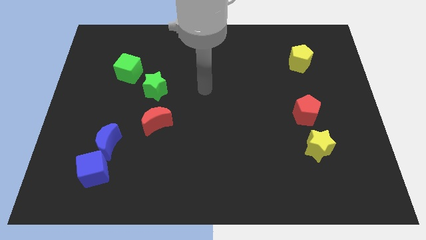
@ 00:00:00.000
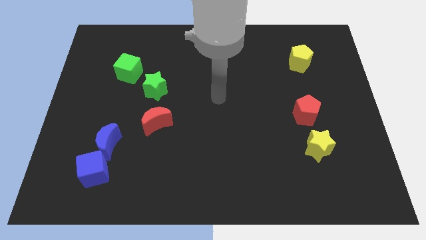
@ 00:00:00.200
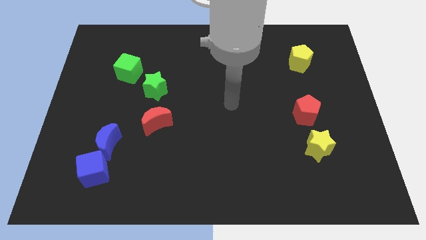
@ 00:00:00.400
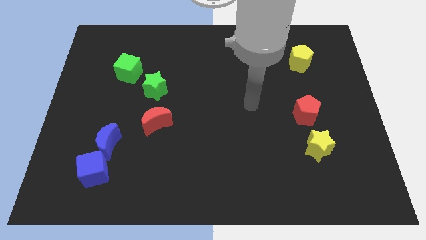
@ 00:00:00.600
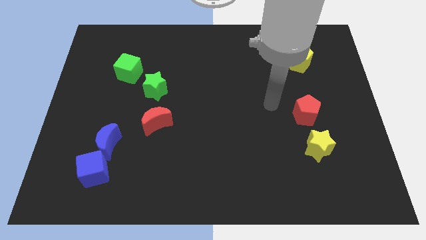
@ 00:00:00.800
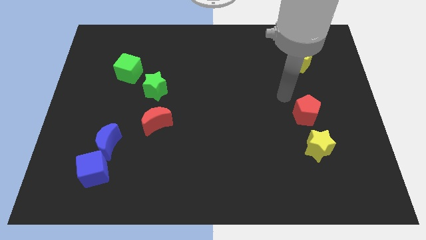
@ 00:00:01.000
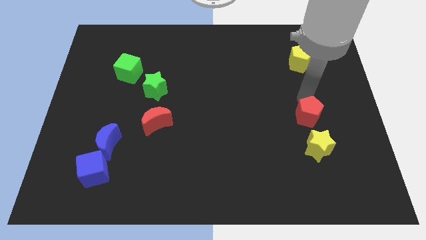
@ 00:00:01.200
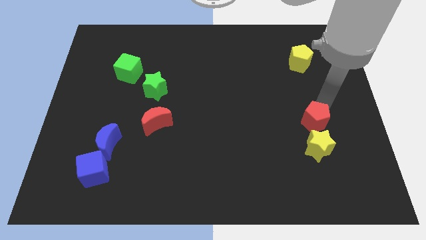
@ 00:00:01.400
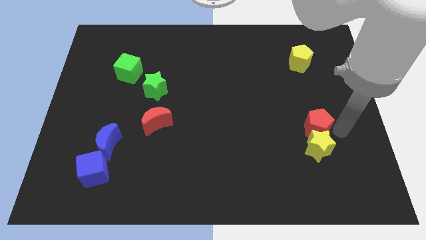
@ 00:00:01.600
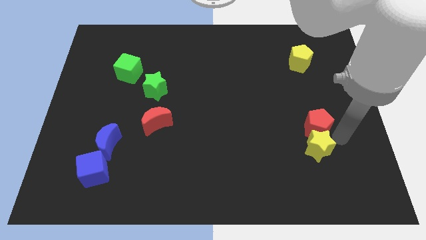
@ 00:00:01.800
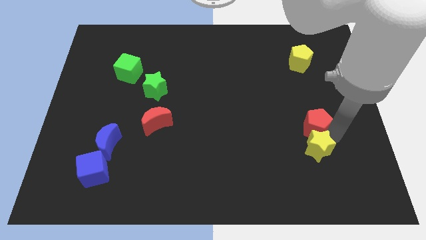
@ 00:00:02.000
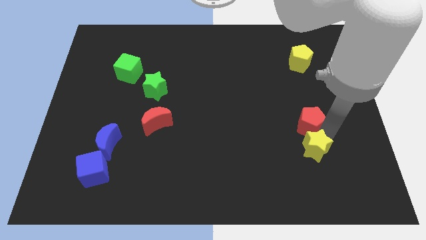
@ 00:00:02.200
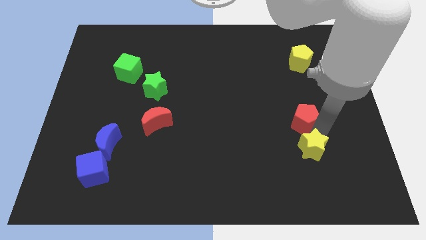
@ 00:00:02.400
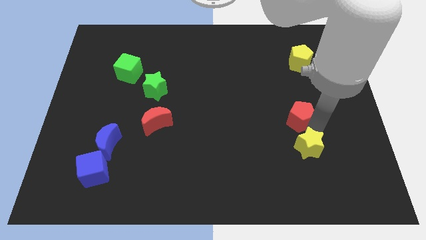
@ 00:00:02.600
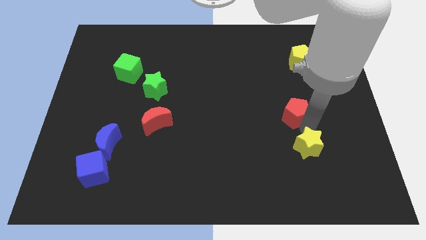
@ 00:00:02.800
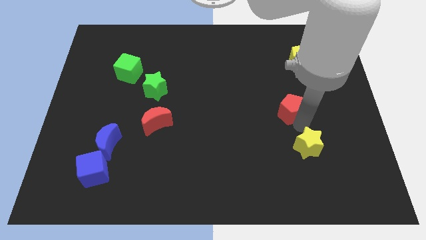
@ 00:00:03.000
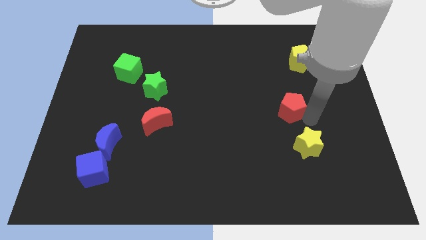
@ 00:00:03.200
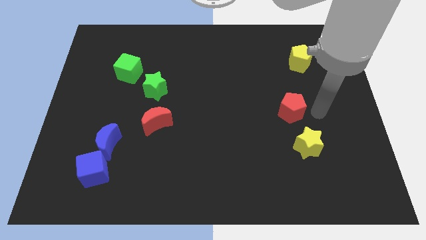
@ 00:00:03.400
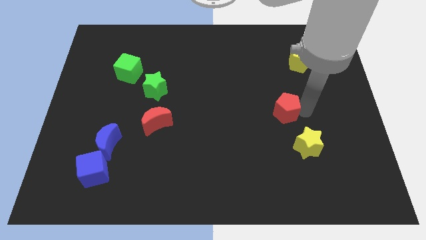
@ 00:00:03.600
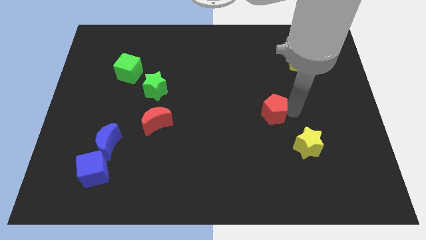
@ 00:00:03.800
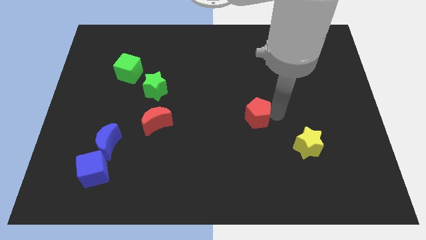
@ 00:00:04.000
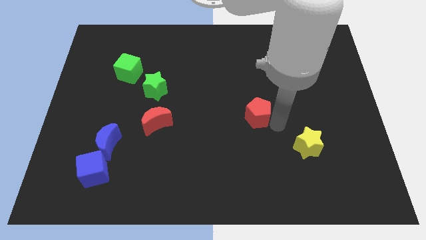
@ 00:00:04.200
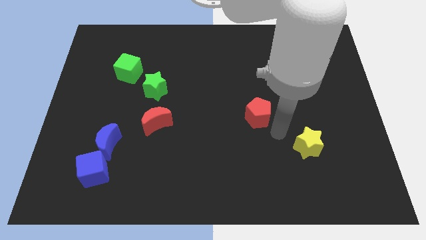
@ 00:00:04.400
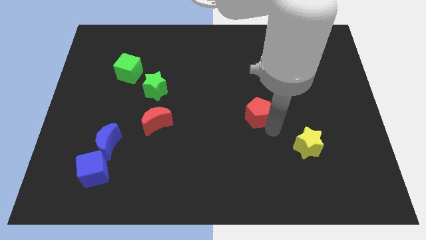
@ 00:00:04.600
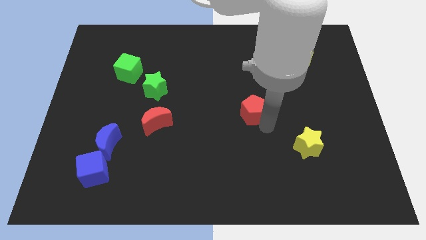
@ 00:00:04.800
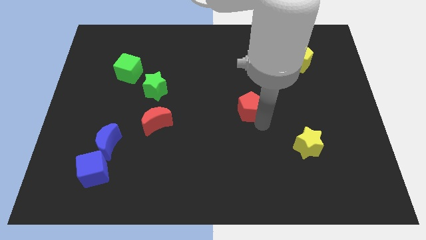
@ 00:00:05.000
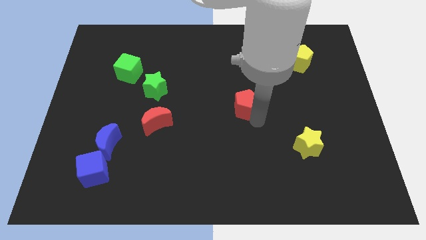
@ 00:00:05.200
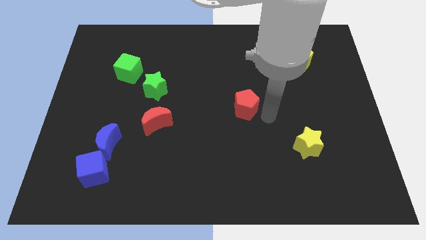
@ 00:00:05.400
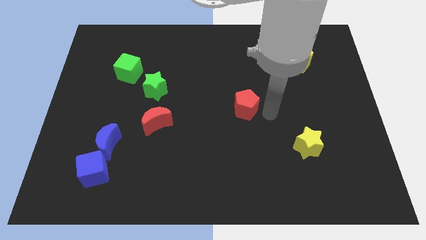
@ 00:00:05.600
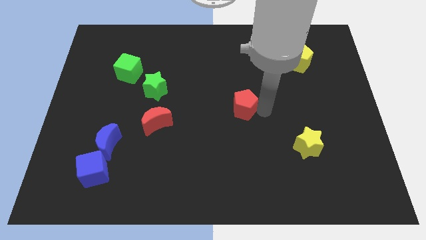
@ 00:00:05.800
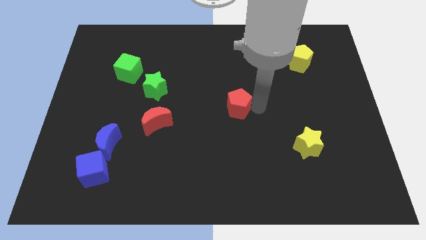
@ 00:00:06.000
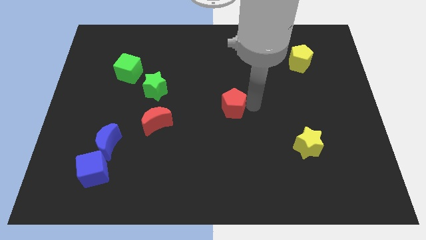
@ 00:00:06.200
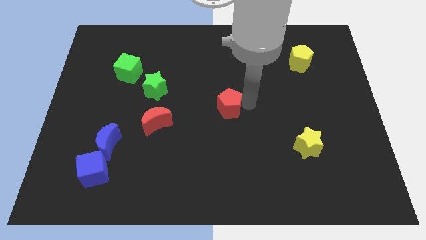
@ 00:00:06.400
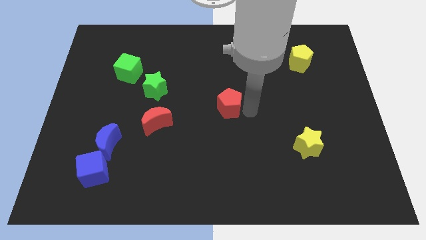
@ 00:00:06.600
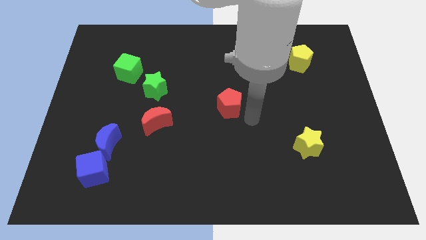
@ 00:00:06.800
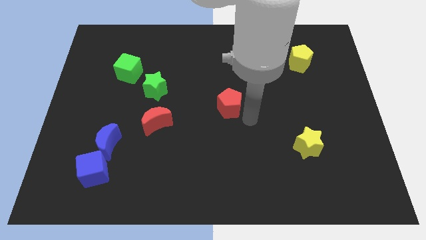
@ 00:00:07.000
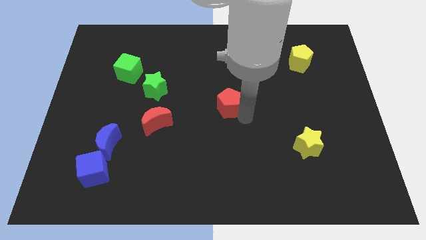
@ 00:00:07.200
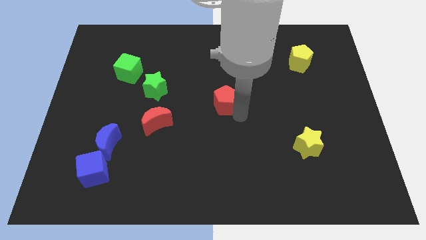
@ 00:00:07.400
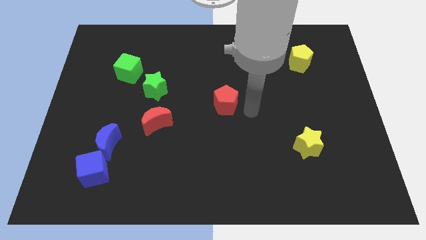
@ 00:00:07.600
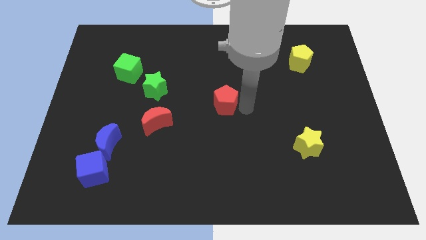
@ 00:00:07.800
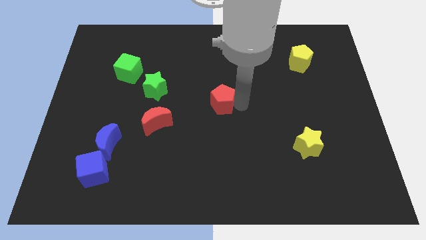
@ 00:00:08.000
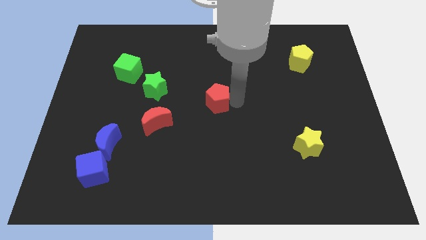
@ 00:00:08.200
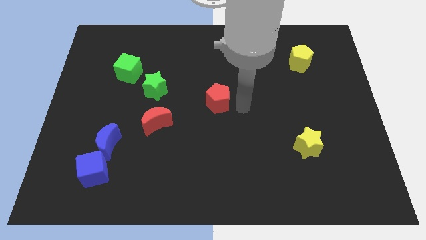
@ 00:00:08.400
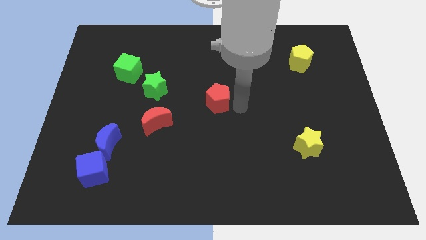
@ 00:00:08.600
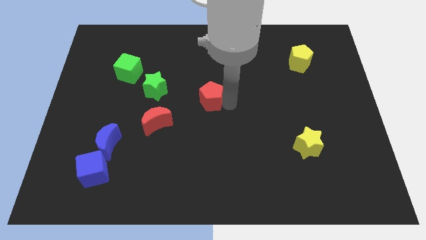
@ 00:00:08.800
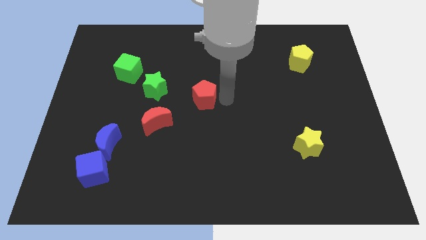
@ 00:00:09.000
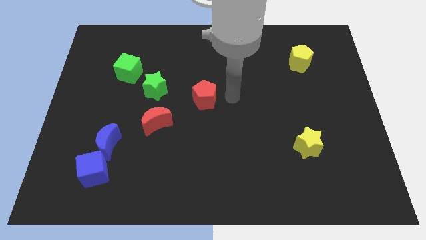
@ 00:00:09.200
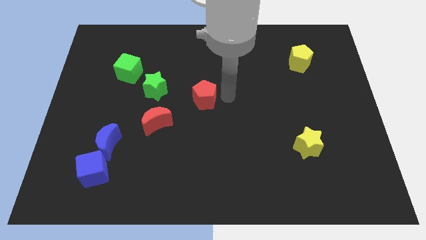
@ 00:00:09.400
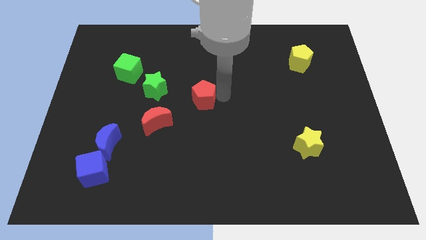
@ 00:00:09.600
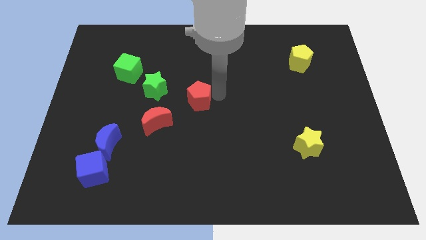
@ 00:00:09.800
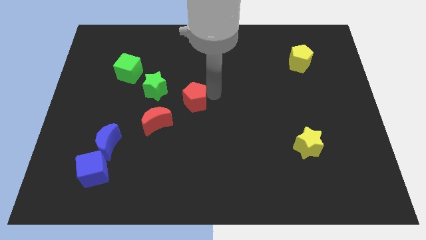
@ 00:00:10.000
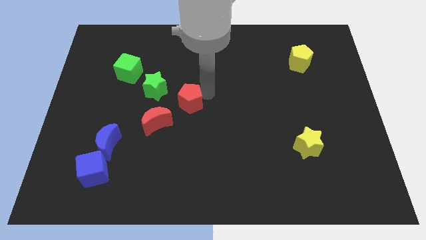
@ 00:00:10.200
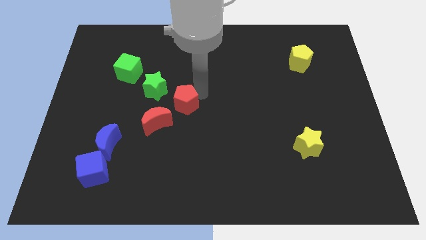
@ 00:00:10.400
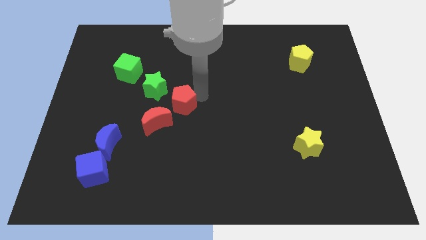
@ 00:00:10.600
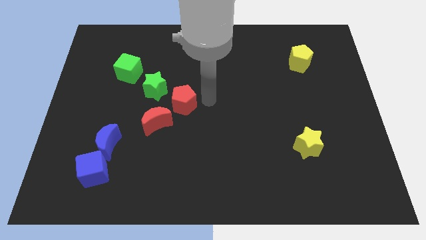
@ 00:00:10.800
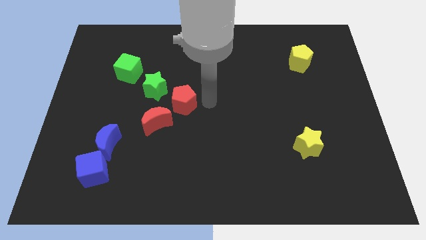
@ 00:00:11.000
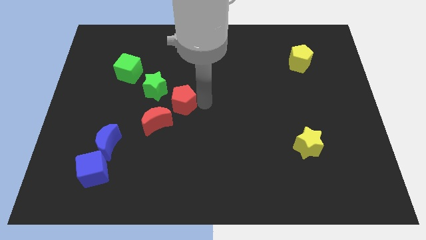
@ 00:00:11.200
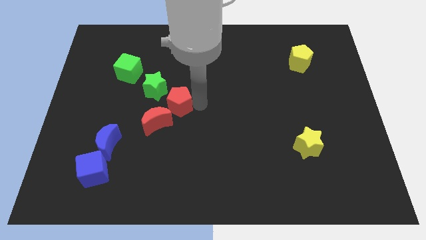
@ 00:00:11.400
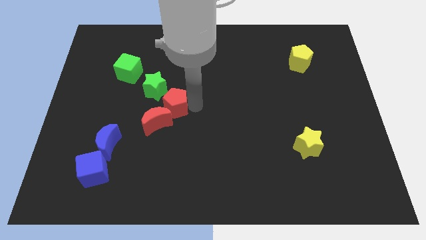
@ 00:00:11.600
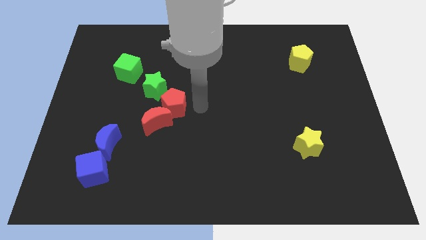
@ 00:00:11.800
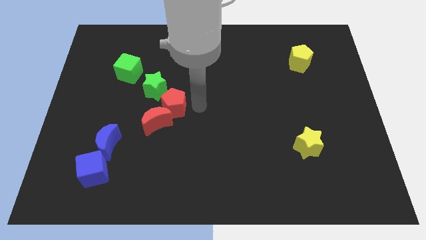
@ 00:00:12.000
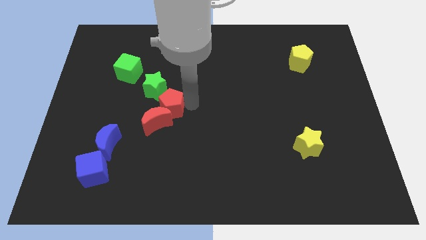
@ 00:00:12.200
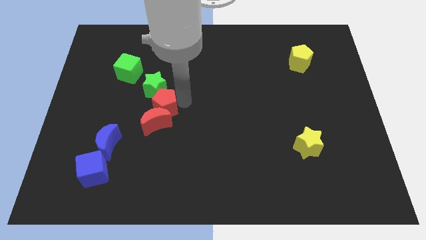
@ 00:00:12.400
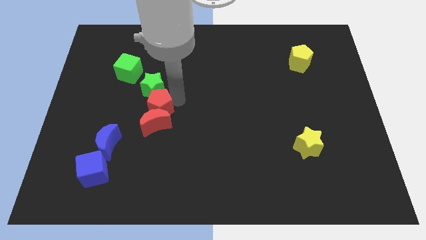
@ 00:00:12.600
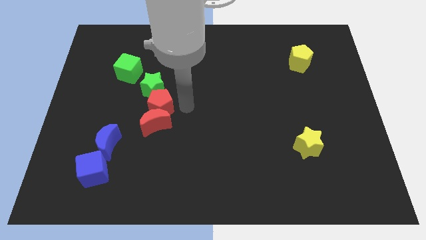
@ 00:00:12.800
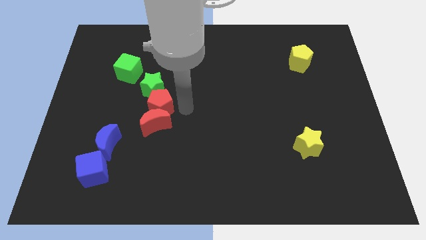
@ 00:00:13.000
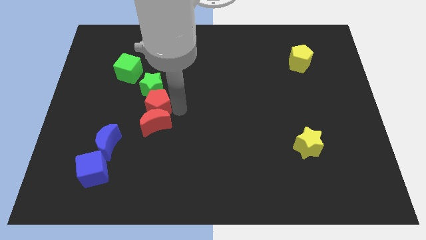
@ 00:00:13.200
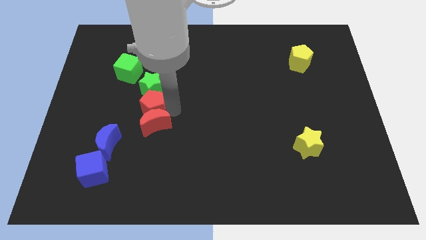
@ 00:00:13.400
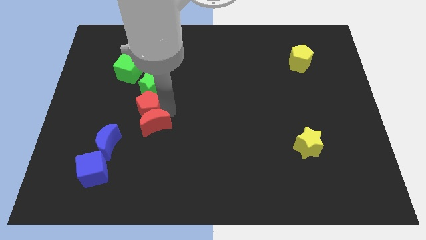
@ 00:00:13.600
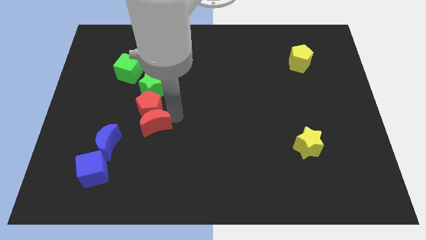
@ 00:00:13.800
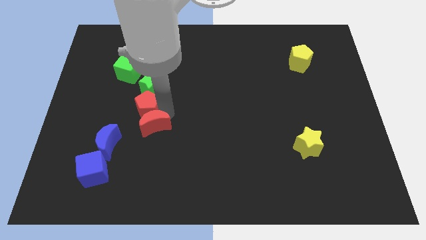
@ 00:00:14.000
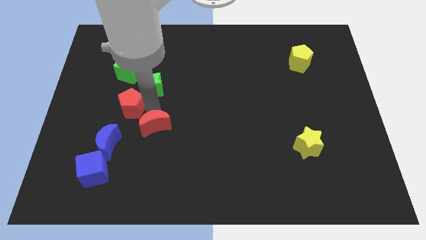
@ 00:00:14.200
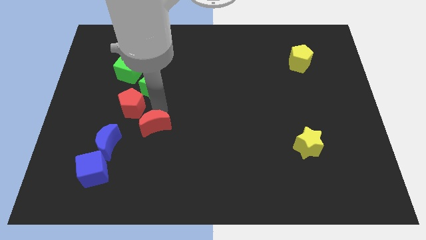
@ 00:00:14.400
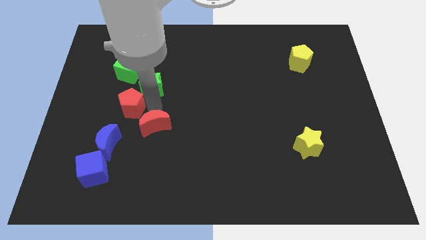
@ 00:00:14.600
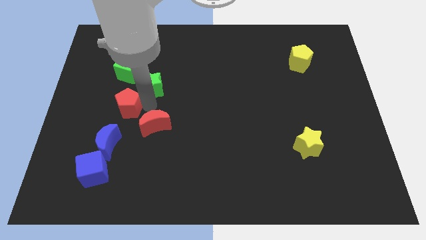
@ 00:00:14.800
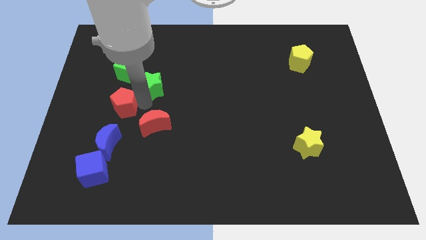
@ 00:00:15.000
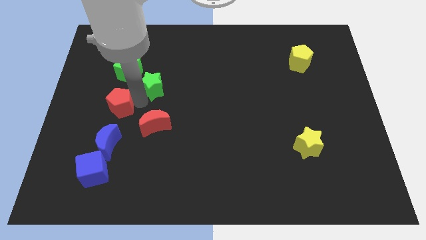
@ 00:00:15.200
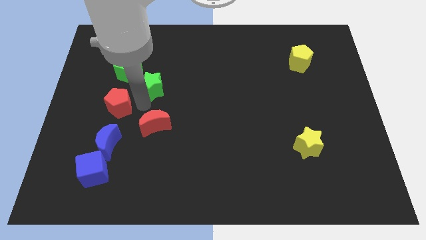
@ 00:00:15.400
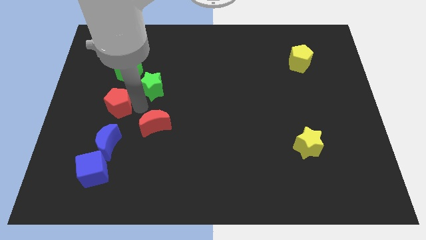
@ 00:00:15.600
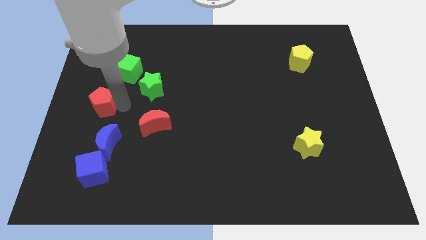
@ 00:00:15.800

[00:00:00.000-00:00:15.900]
slide the red pentagon to the left side
